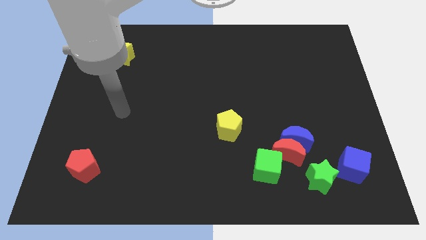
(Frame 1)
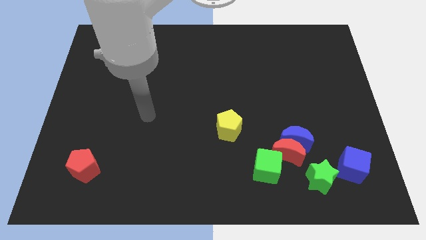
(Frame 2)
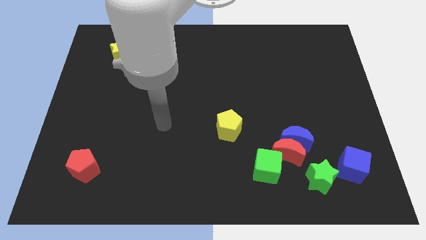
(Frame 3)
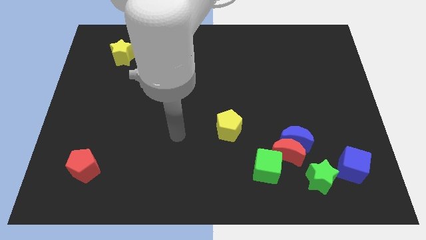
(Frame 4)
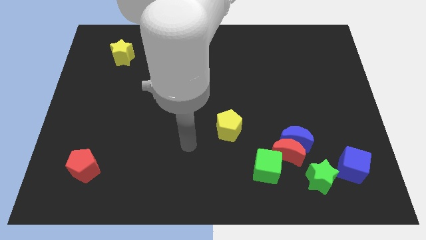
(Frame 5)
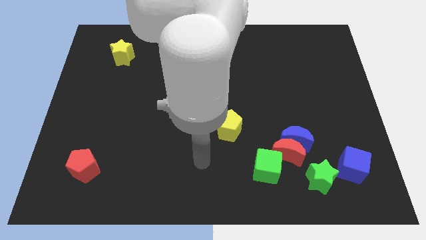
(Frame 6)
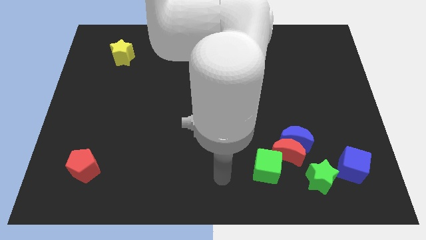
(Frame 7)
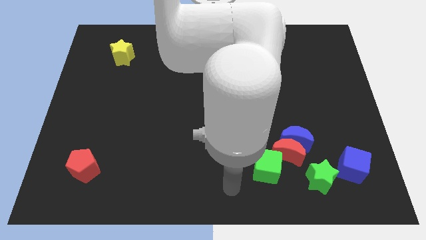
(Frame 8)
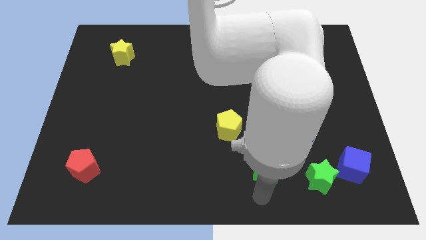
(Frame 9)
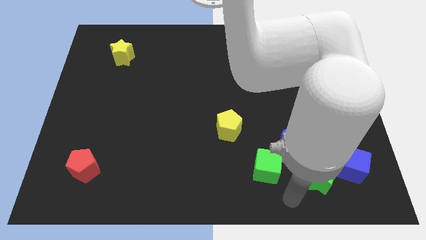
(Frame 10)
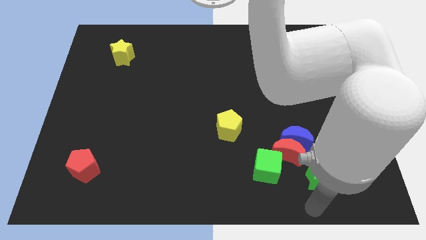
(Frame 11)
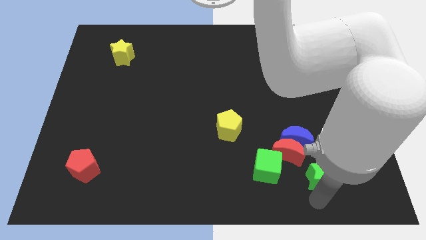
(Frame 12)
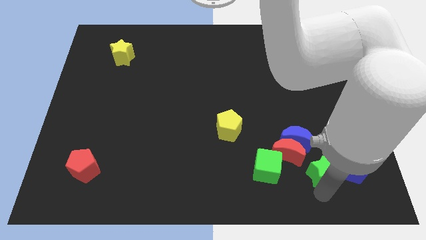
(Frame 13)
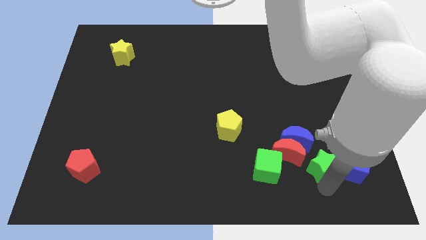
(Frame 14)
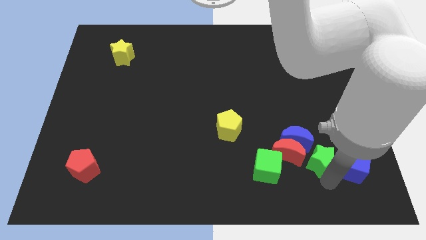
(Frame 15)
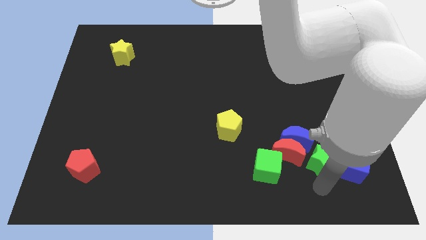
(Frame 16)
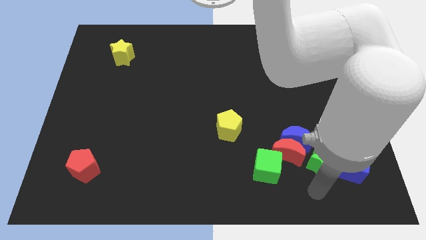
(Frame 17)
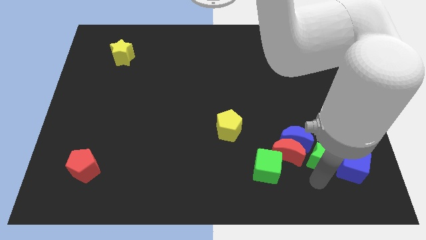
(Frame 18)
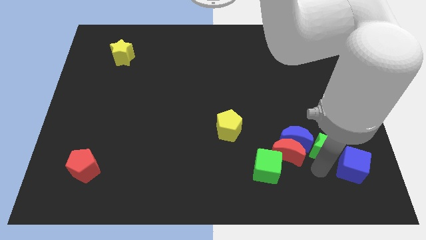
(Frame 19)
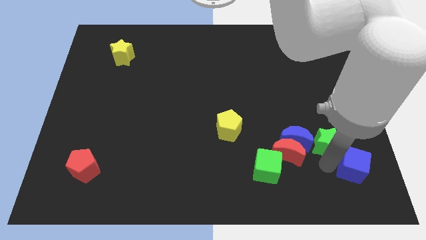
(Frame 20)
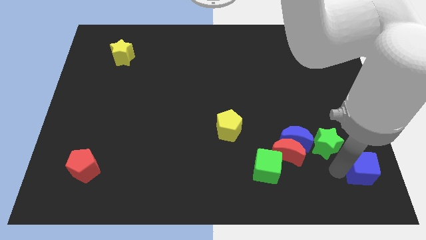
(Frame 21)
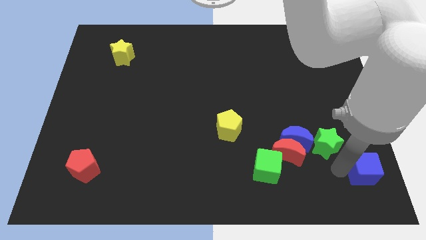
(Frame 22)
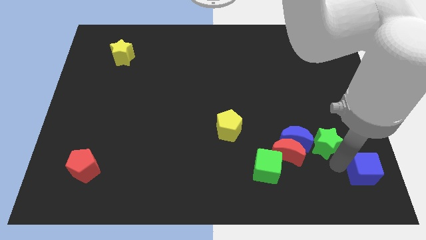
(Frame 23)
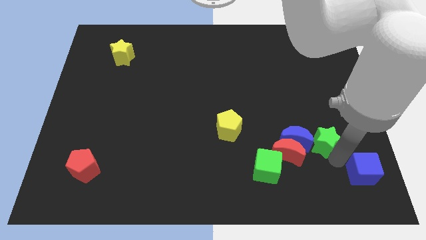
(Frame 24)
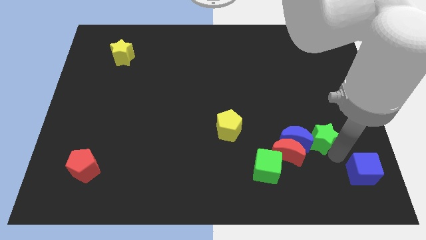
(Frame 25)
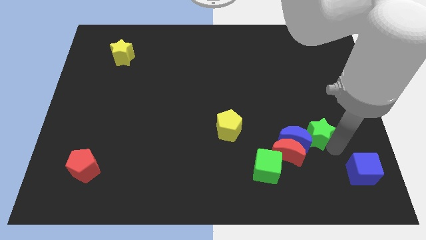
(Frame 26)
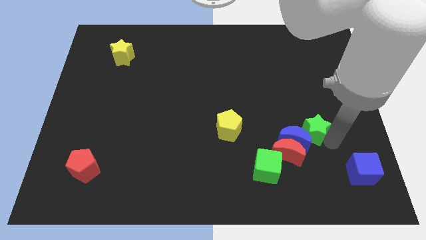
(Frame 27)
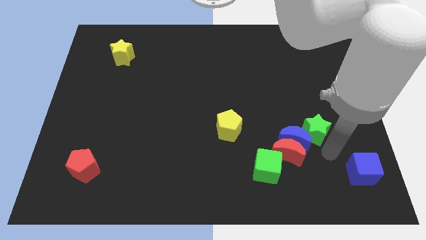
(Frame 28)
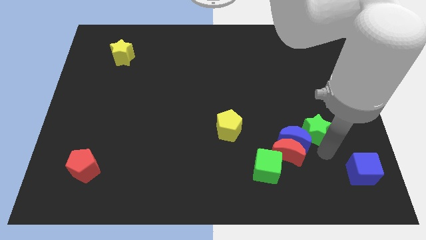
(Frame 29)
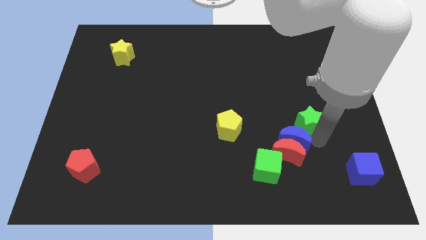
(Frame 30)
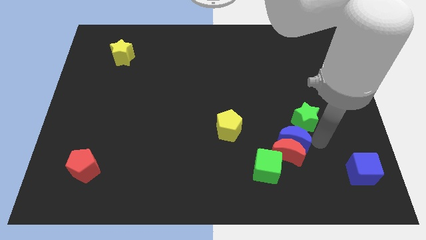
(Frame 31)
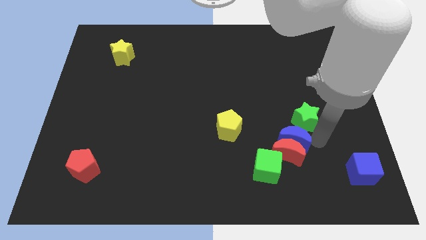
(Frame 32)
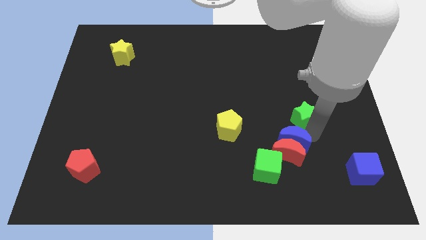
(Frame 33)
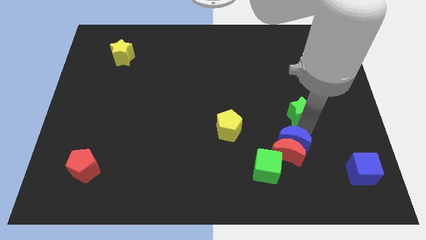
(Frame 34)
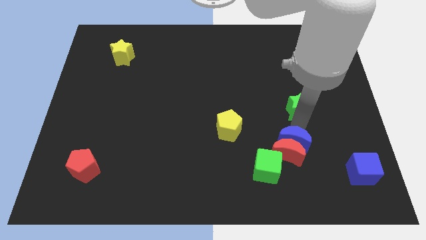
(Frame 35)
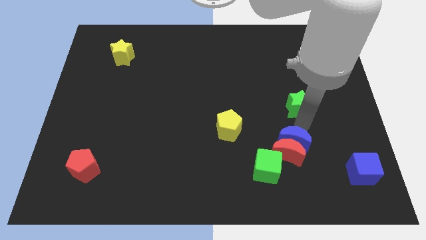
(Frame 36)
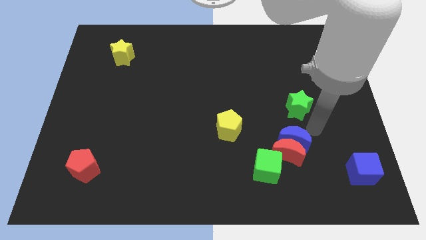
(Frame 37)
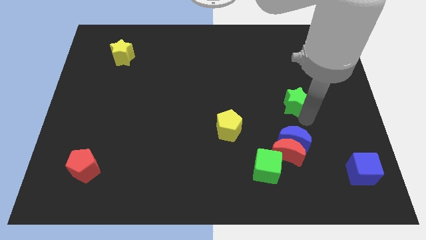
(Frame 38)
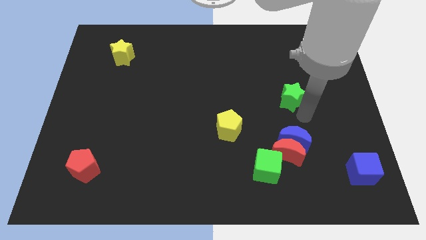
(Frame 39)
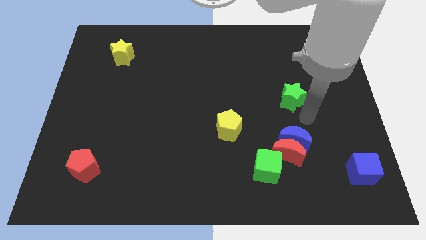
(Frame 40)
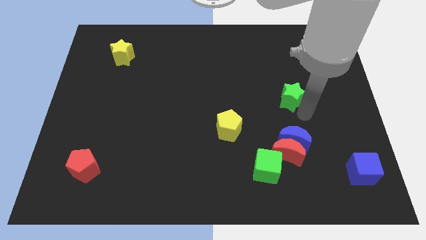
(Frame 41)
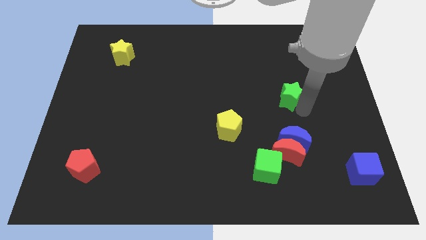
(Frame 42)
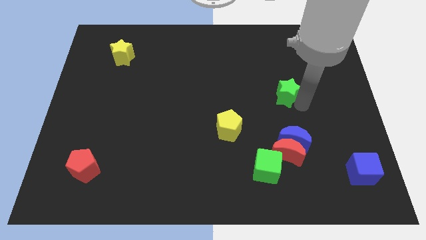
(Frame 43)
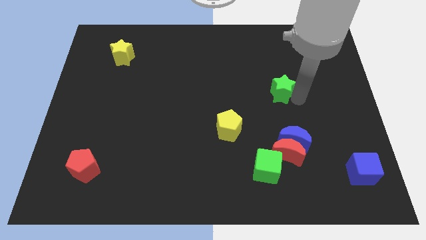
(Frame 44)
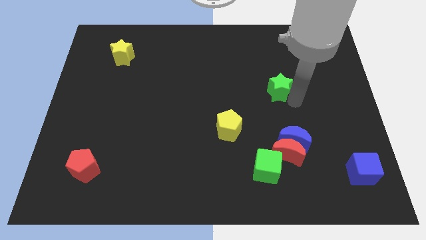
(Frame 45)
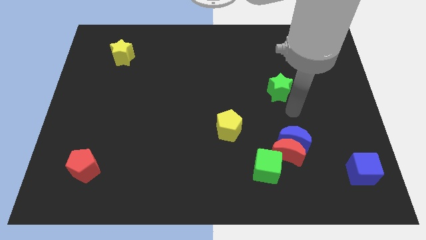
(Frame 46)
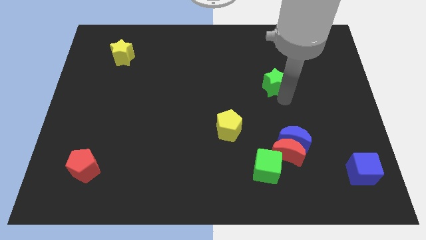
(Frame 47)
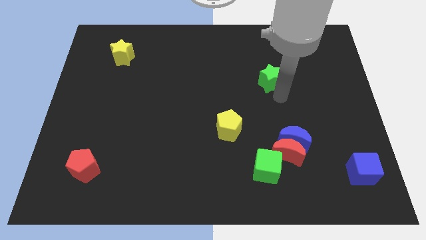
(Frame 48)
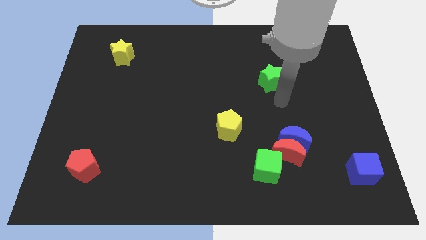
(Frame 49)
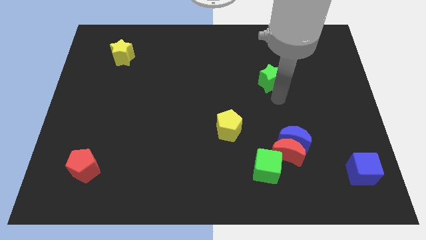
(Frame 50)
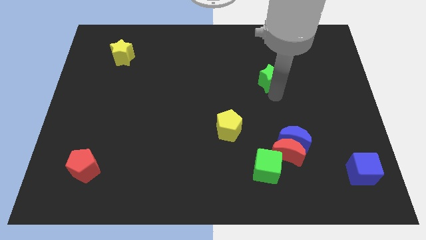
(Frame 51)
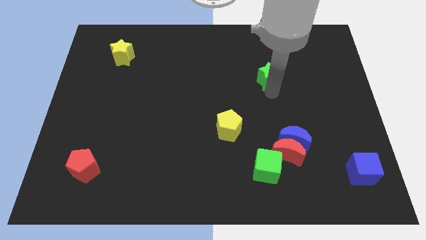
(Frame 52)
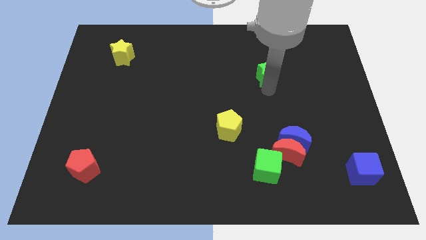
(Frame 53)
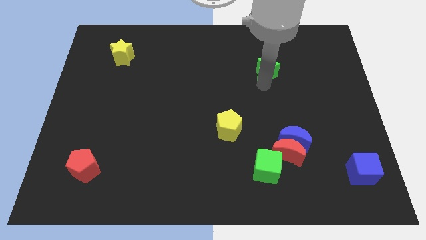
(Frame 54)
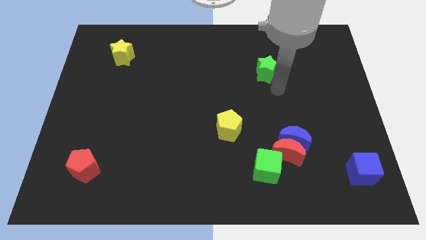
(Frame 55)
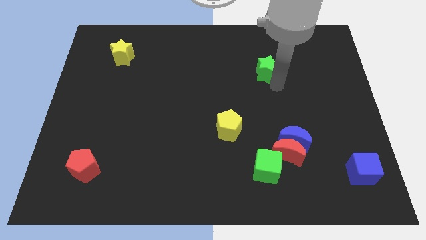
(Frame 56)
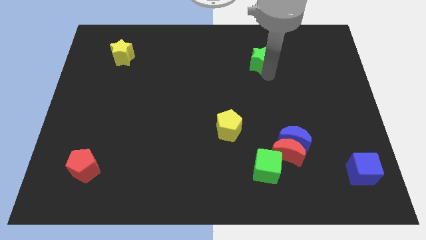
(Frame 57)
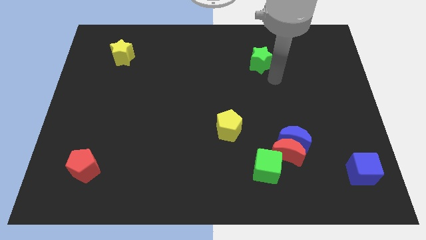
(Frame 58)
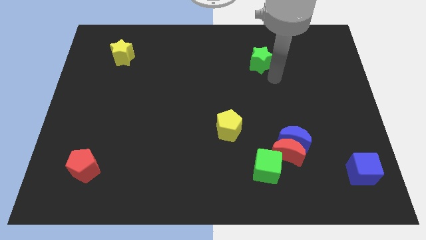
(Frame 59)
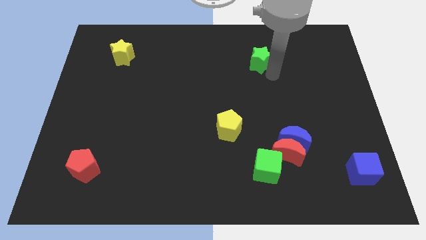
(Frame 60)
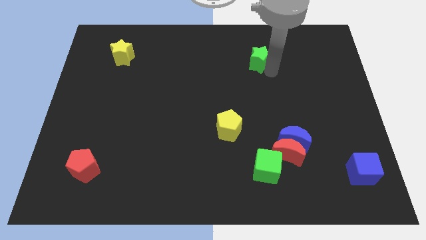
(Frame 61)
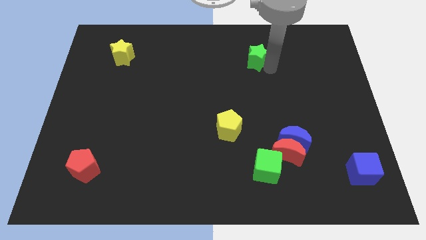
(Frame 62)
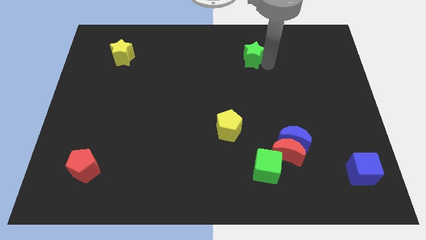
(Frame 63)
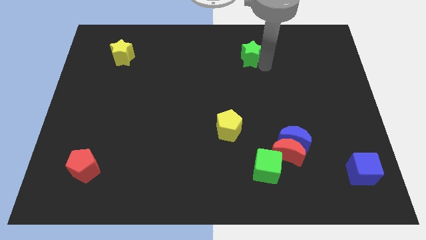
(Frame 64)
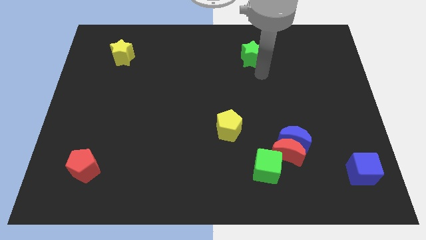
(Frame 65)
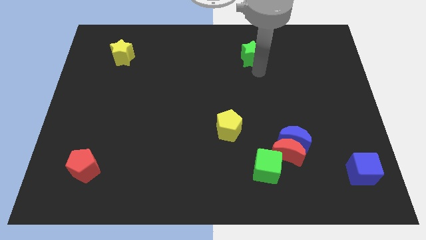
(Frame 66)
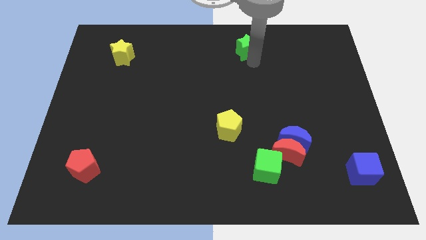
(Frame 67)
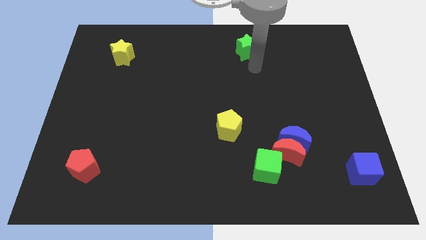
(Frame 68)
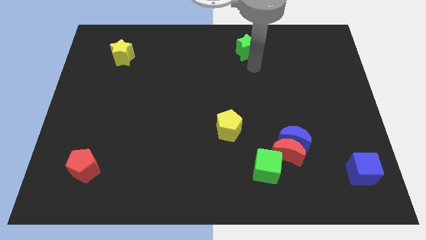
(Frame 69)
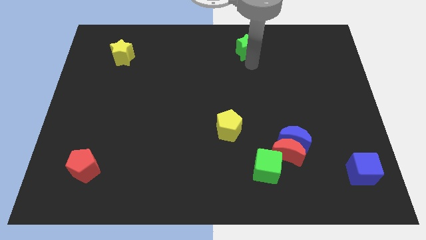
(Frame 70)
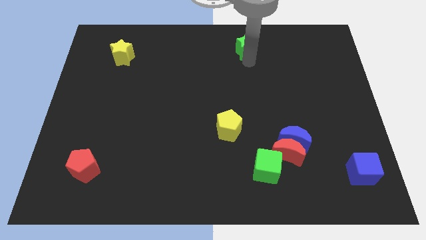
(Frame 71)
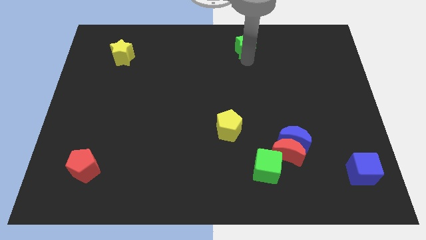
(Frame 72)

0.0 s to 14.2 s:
move the green star to the towards your base
